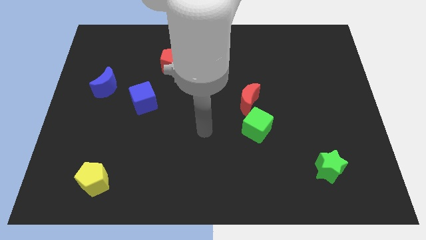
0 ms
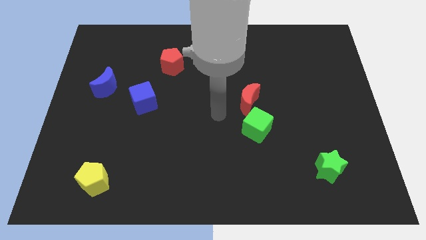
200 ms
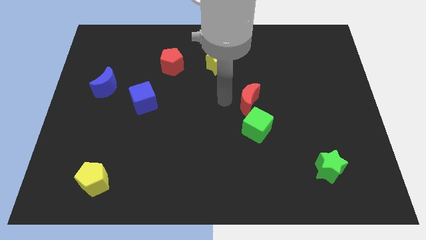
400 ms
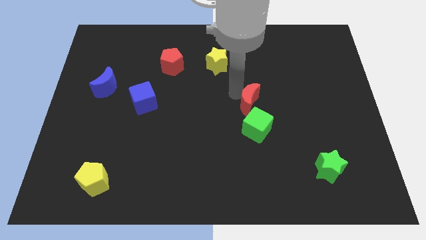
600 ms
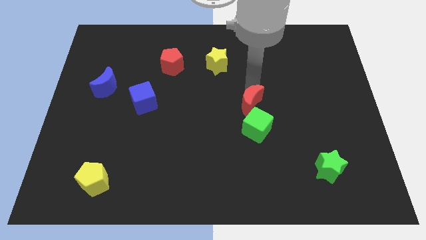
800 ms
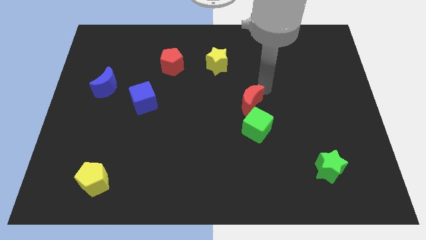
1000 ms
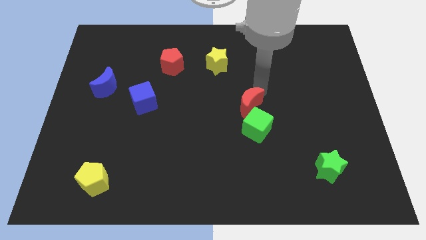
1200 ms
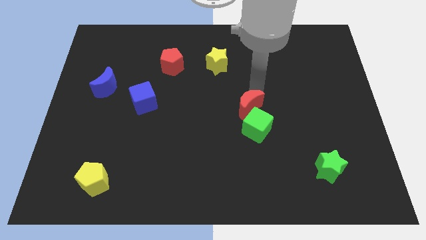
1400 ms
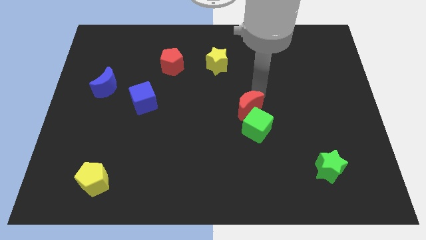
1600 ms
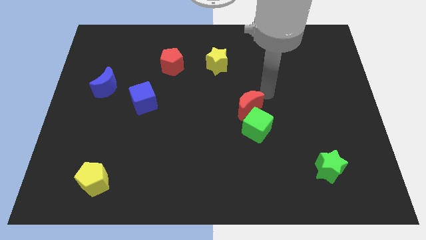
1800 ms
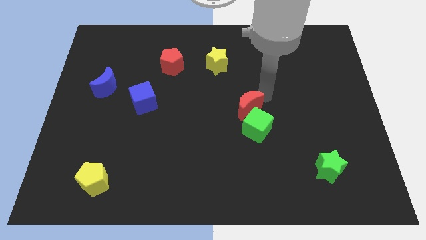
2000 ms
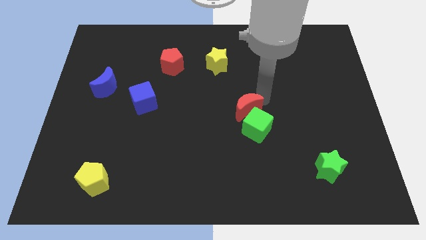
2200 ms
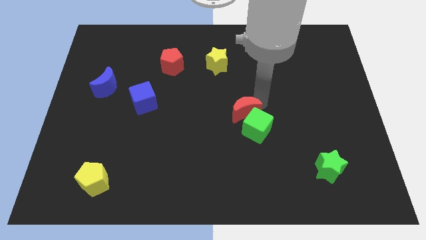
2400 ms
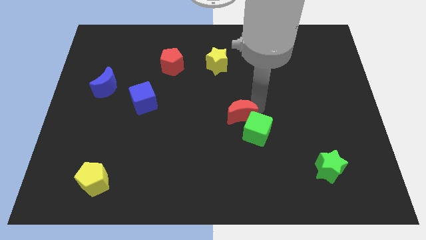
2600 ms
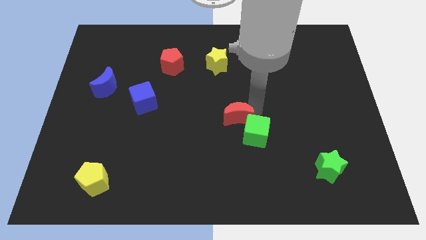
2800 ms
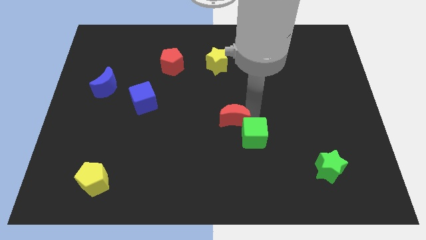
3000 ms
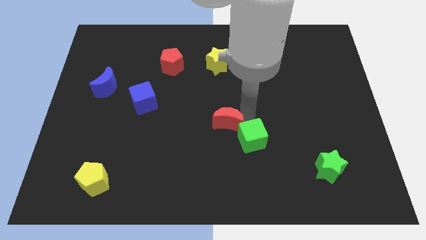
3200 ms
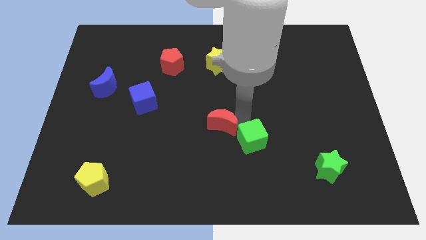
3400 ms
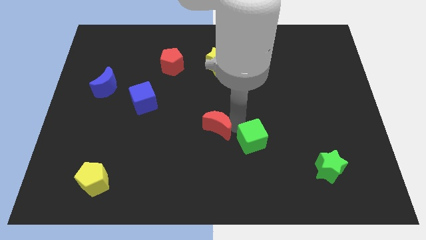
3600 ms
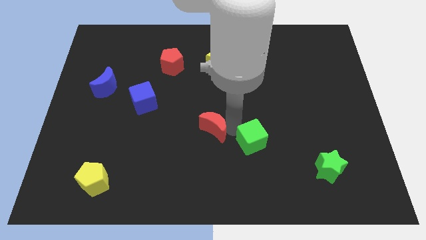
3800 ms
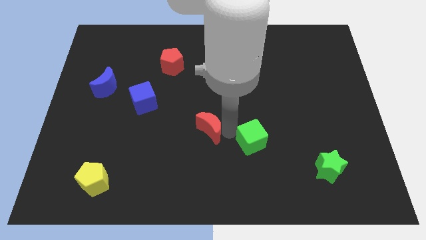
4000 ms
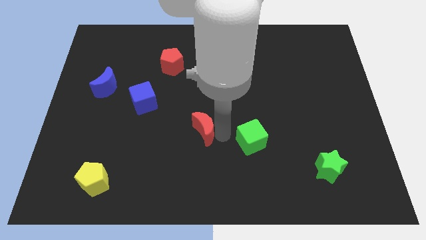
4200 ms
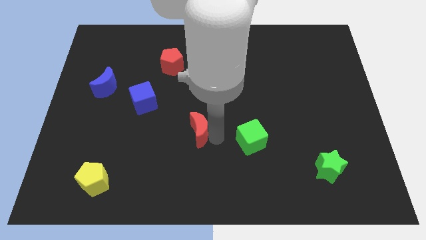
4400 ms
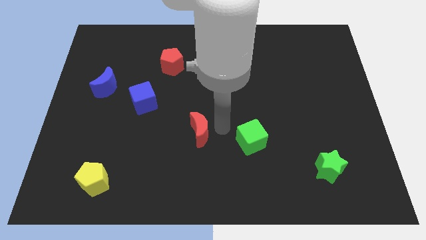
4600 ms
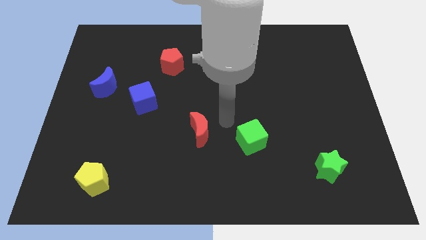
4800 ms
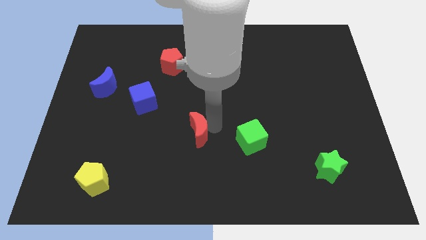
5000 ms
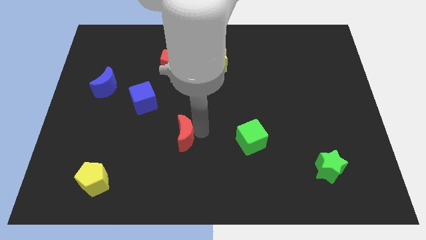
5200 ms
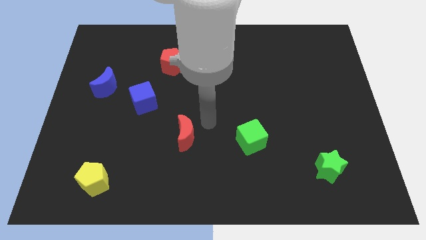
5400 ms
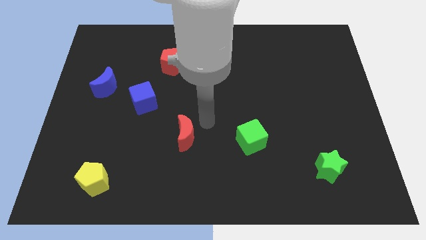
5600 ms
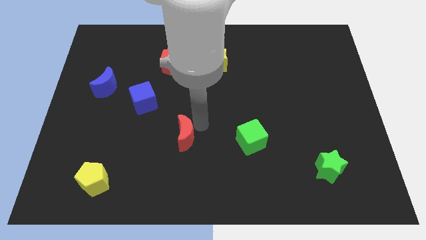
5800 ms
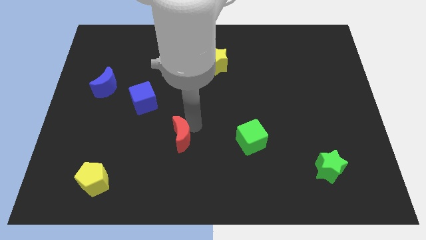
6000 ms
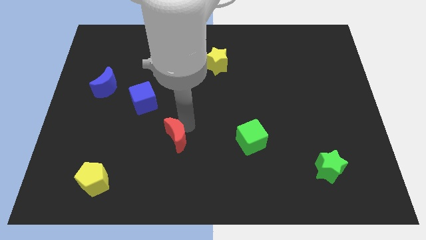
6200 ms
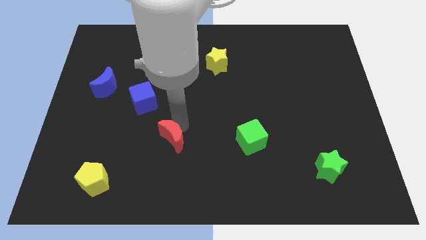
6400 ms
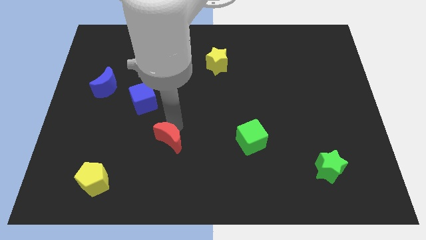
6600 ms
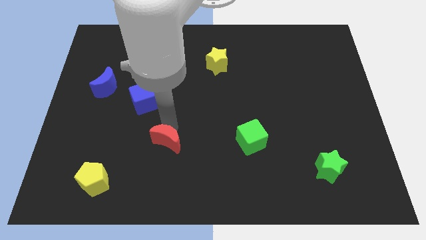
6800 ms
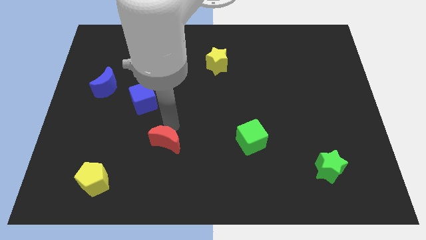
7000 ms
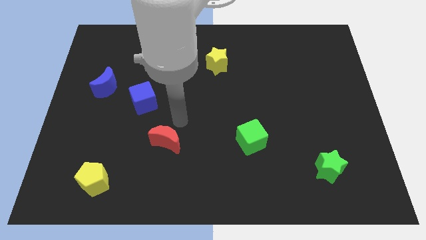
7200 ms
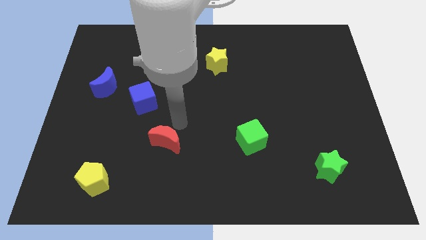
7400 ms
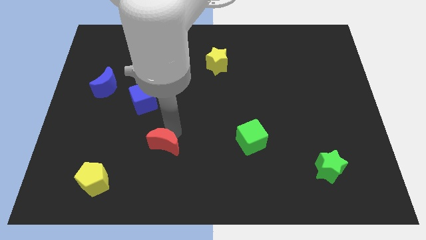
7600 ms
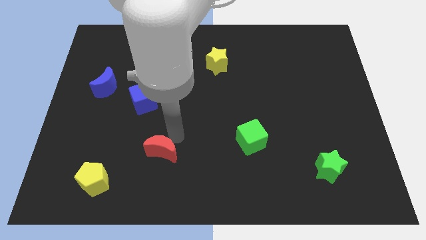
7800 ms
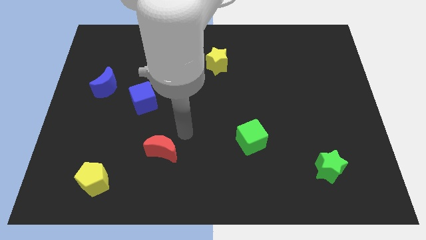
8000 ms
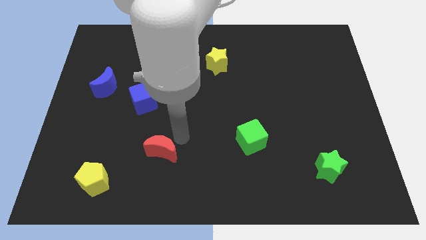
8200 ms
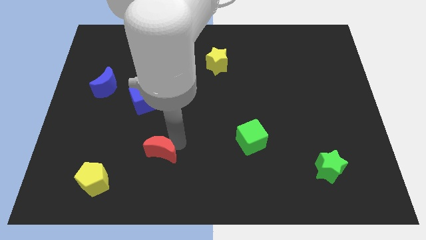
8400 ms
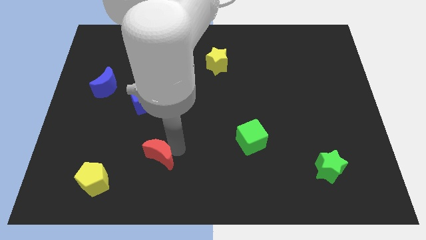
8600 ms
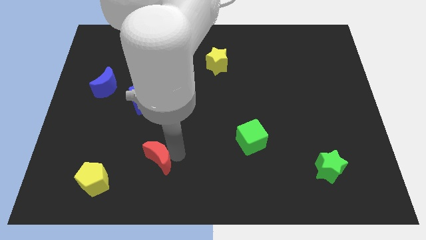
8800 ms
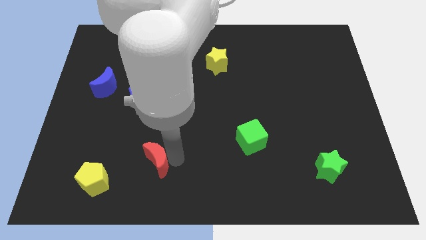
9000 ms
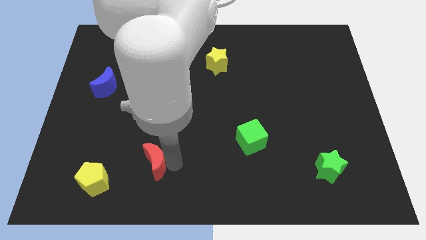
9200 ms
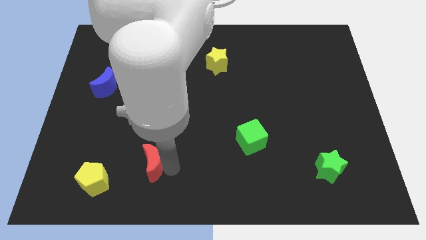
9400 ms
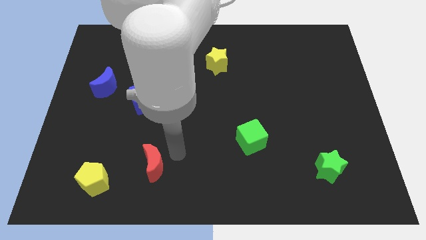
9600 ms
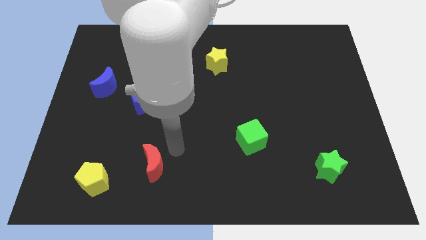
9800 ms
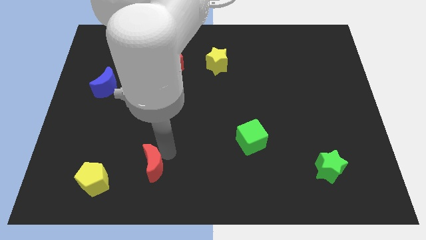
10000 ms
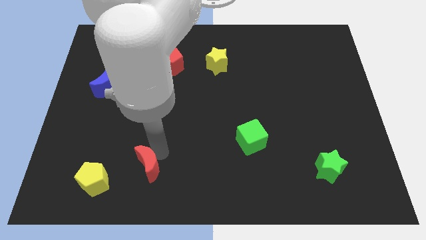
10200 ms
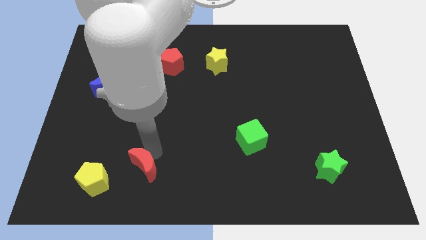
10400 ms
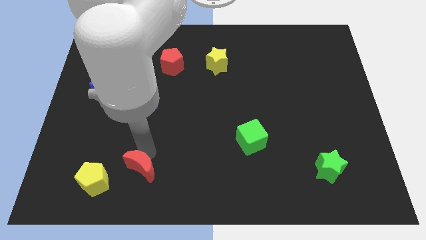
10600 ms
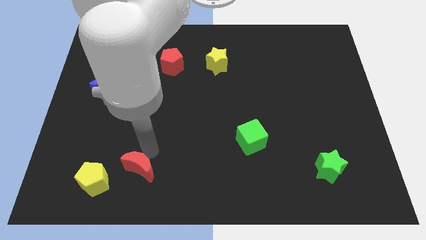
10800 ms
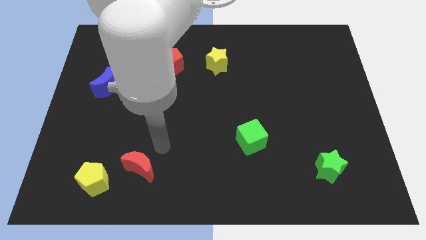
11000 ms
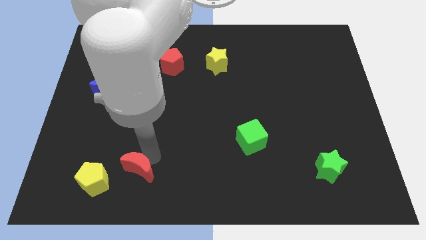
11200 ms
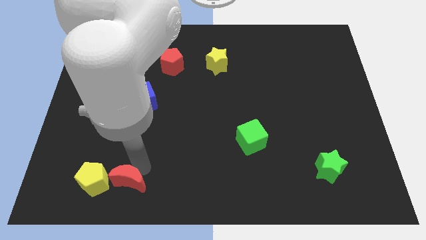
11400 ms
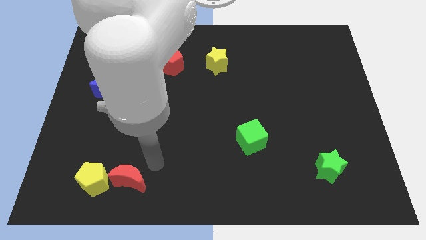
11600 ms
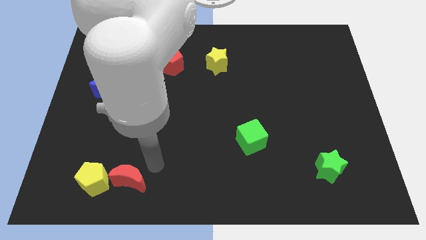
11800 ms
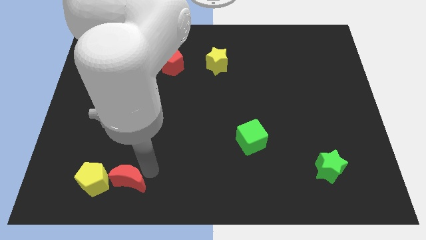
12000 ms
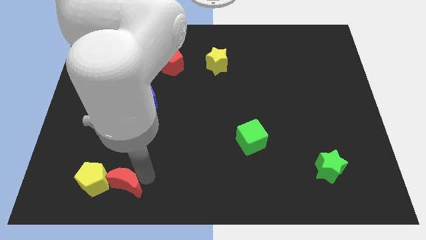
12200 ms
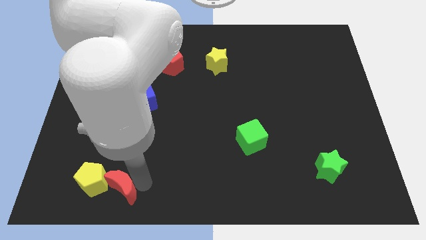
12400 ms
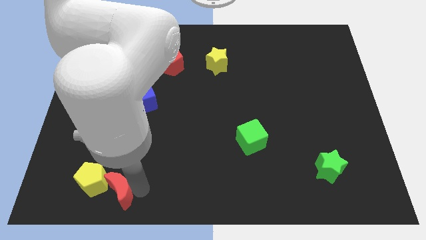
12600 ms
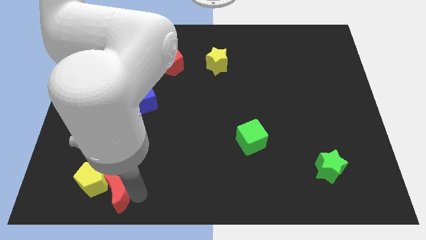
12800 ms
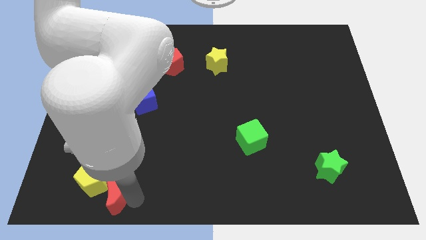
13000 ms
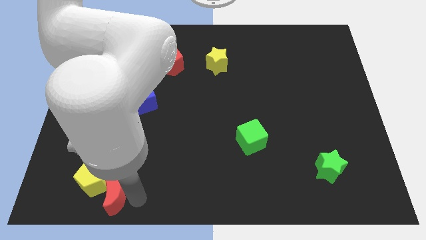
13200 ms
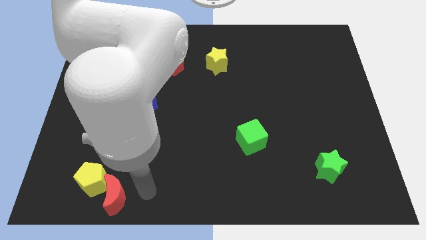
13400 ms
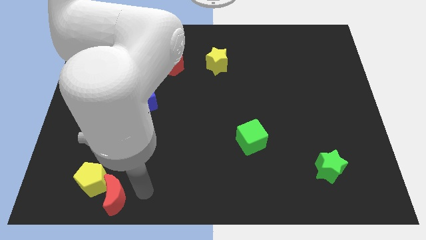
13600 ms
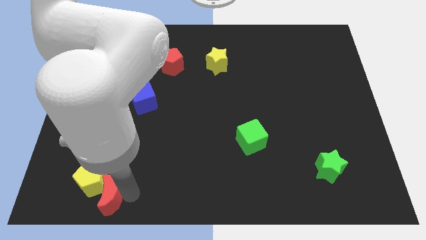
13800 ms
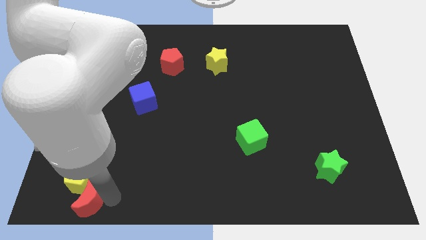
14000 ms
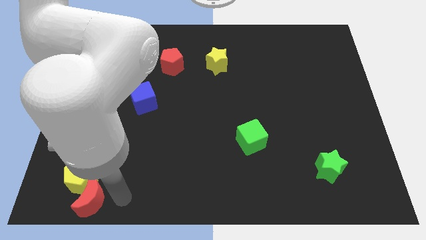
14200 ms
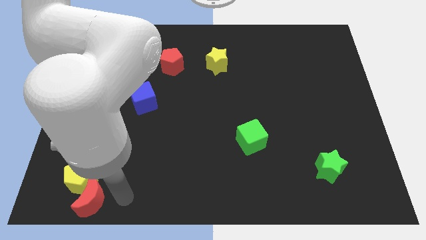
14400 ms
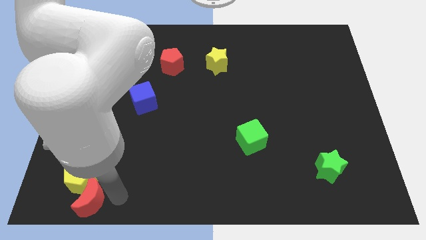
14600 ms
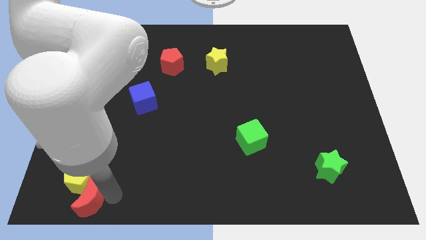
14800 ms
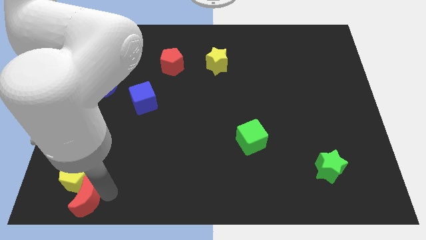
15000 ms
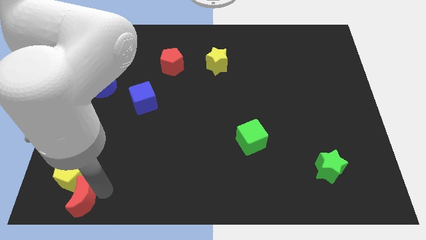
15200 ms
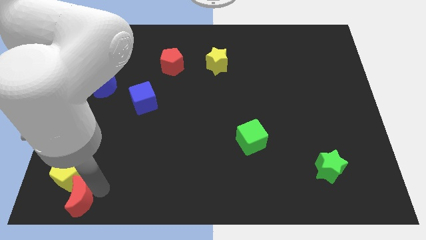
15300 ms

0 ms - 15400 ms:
put the red moon to the lower left corner
